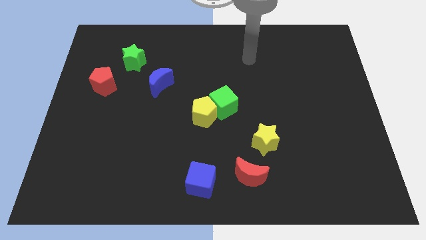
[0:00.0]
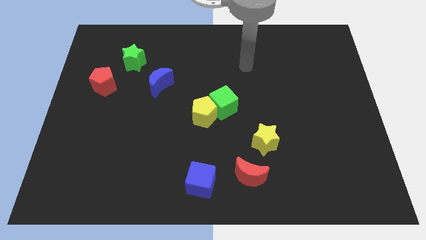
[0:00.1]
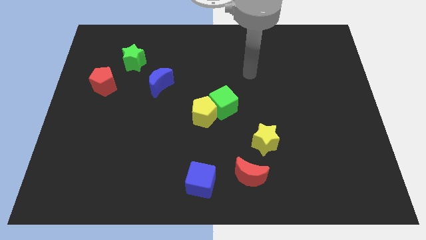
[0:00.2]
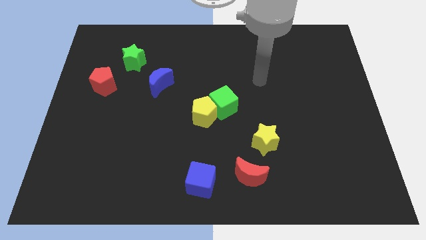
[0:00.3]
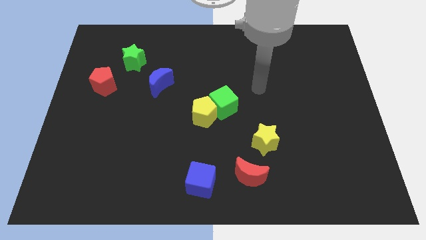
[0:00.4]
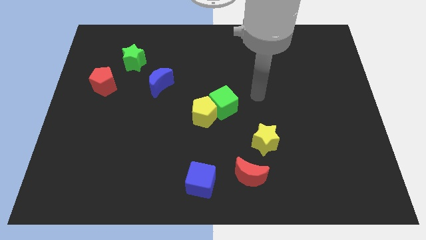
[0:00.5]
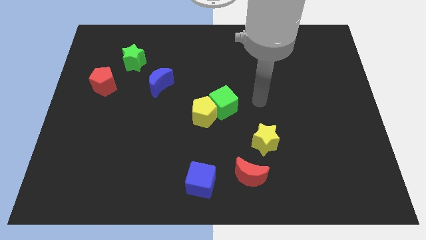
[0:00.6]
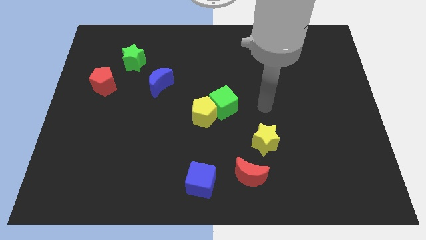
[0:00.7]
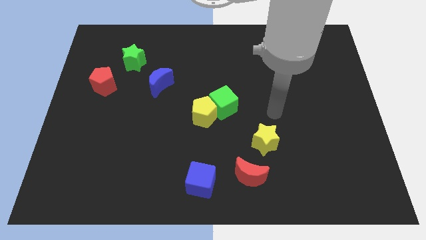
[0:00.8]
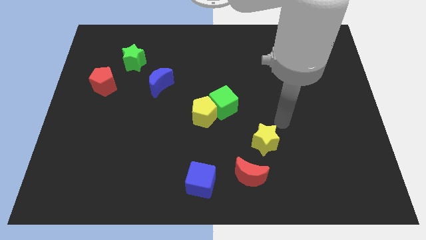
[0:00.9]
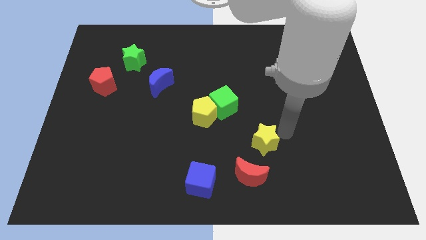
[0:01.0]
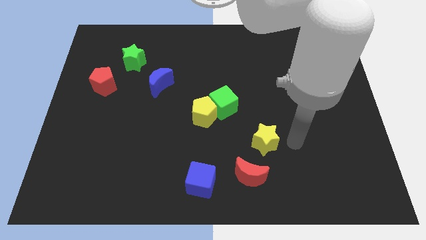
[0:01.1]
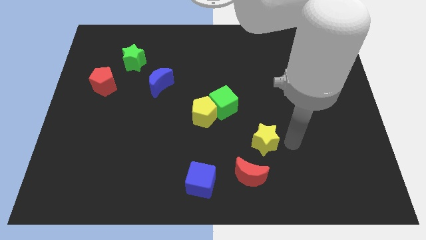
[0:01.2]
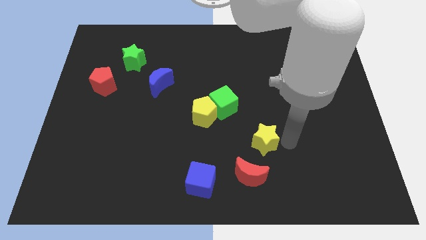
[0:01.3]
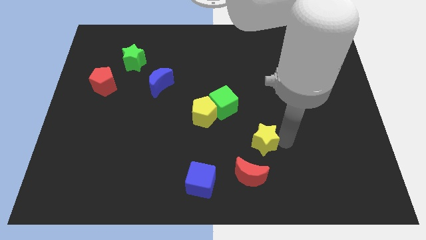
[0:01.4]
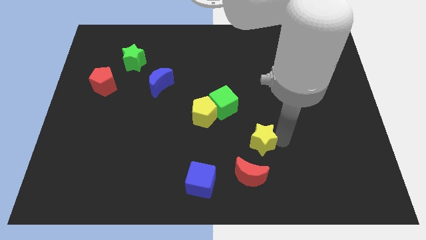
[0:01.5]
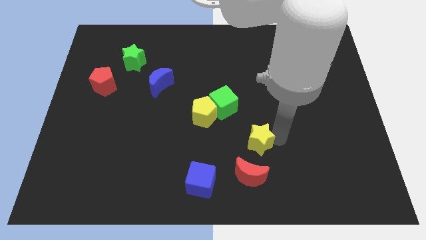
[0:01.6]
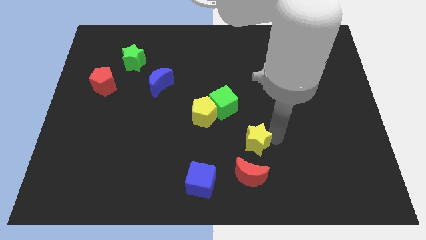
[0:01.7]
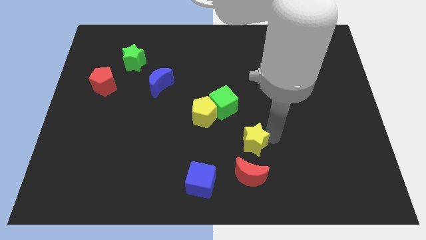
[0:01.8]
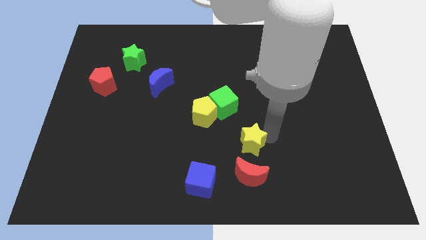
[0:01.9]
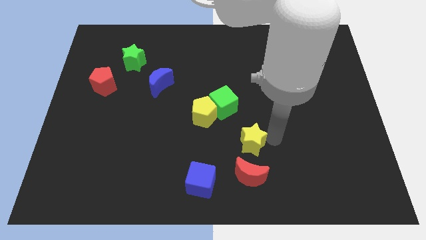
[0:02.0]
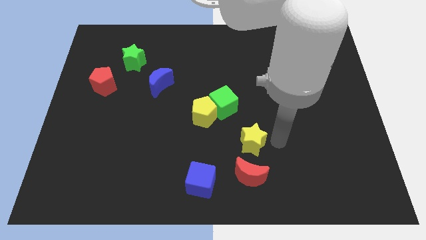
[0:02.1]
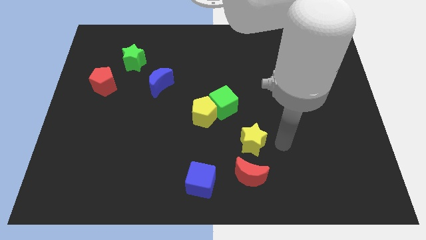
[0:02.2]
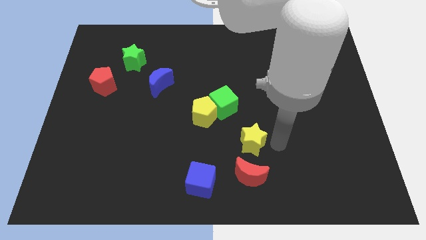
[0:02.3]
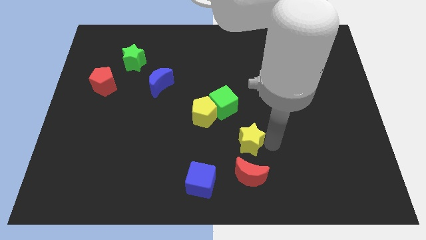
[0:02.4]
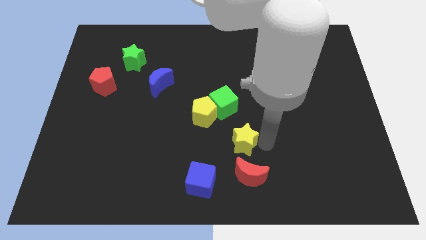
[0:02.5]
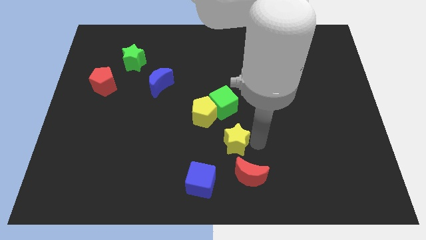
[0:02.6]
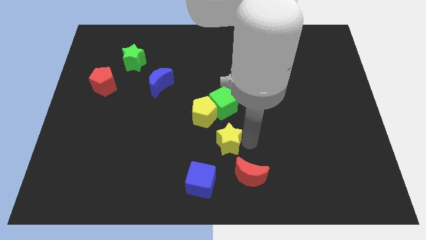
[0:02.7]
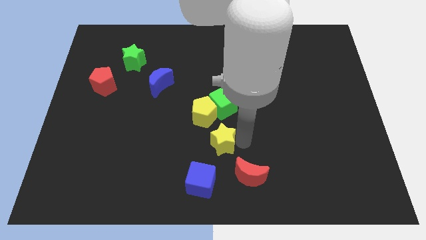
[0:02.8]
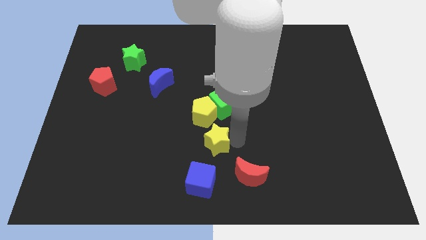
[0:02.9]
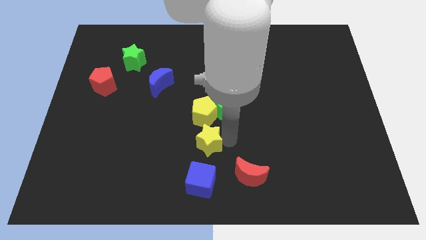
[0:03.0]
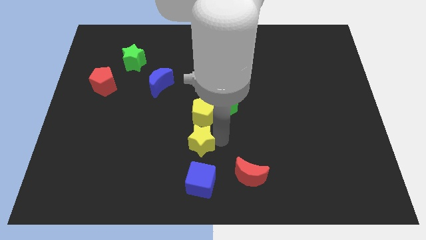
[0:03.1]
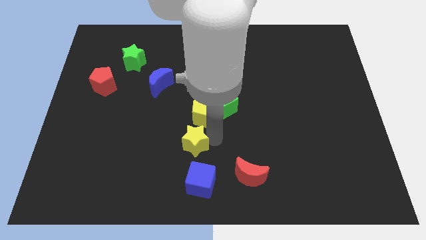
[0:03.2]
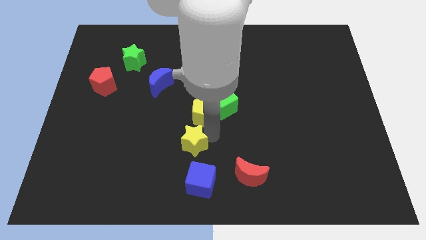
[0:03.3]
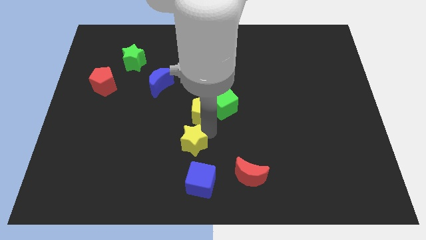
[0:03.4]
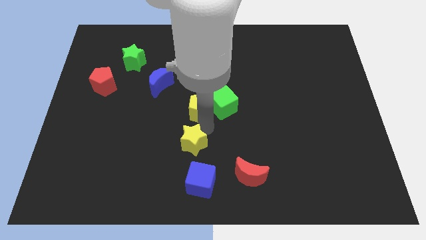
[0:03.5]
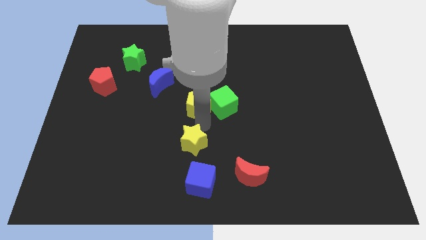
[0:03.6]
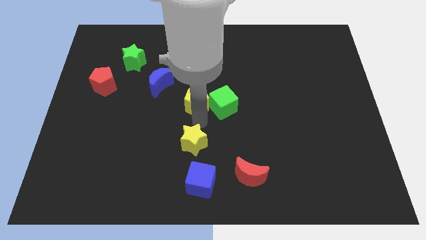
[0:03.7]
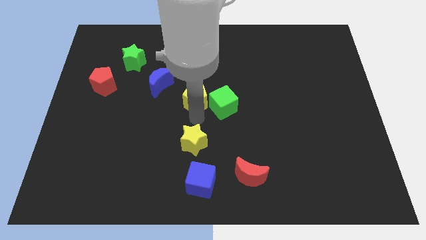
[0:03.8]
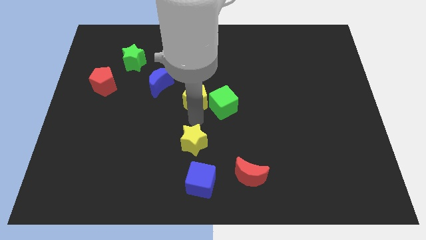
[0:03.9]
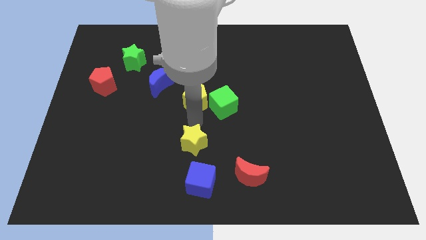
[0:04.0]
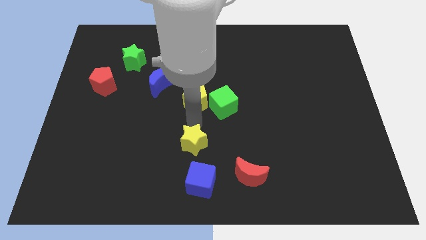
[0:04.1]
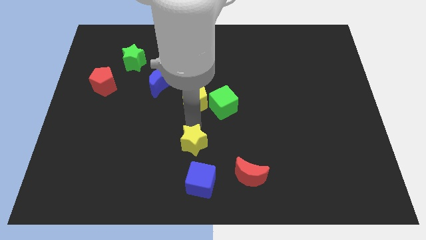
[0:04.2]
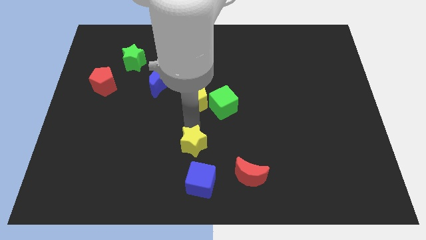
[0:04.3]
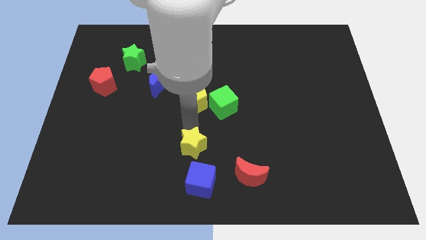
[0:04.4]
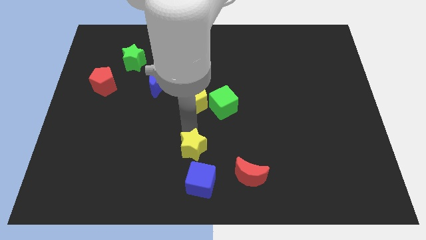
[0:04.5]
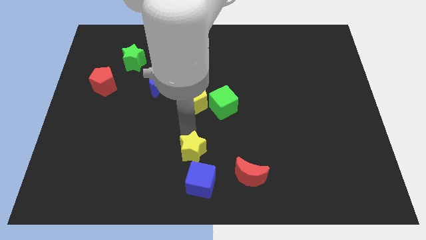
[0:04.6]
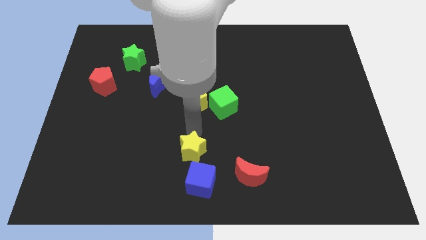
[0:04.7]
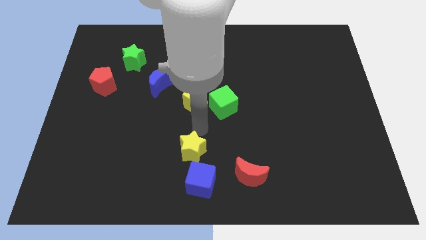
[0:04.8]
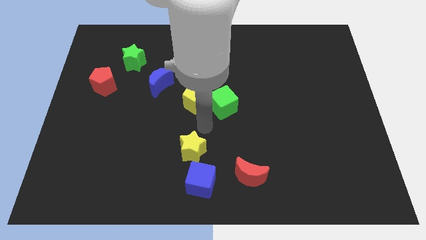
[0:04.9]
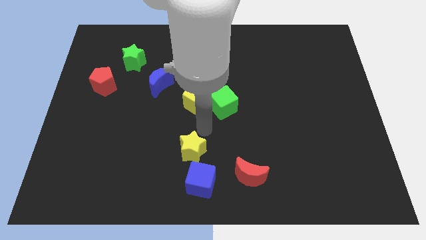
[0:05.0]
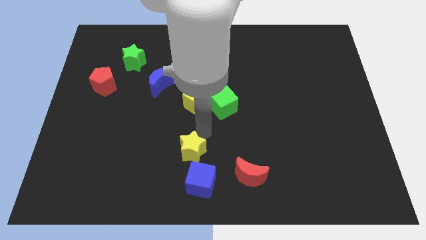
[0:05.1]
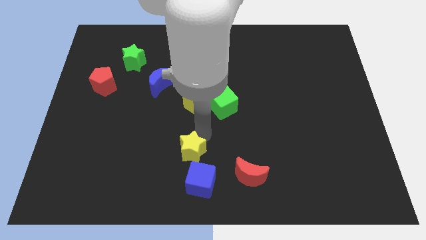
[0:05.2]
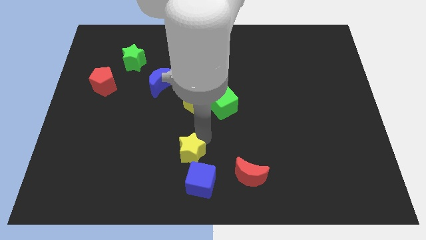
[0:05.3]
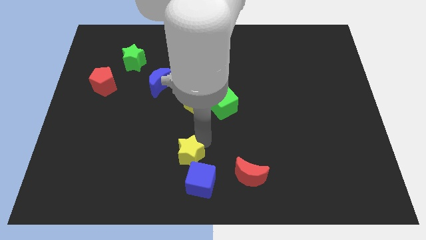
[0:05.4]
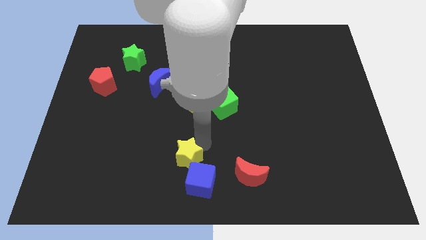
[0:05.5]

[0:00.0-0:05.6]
put the yellow star to the left of the red moon
